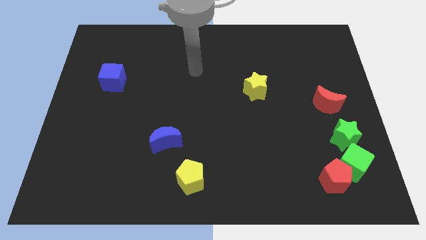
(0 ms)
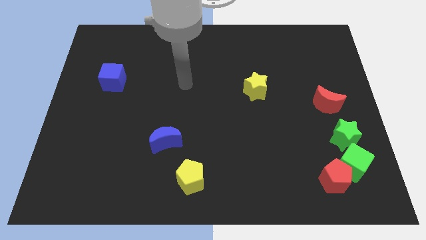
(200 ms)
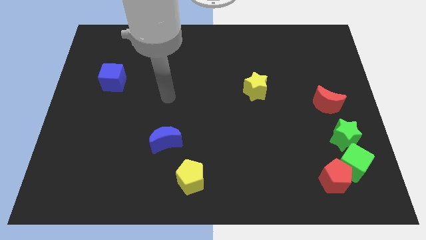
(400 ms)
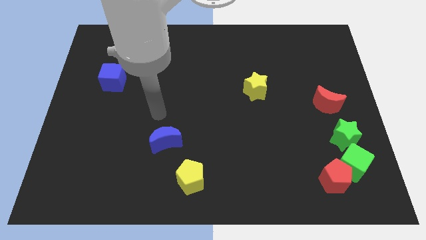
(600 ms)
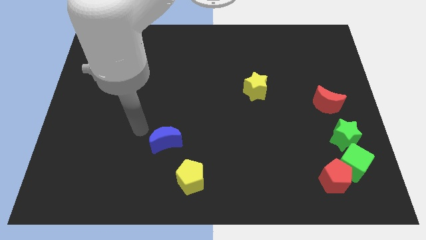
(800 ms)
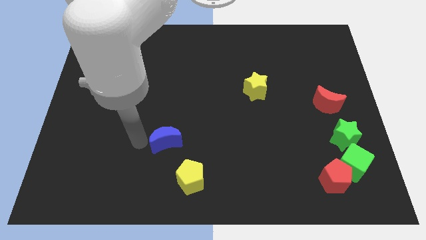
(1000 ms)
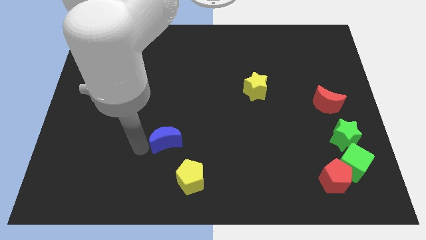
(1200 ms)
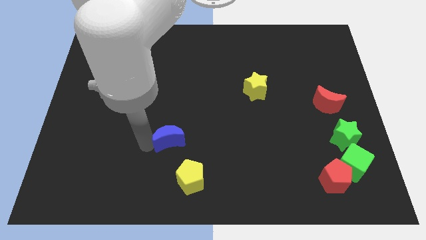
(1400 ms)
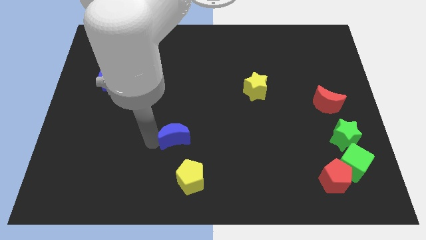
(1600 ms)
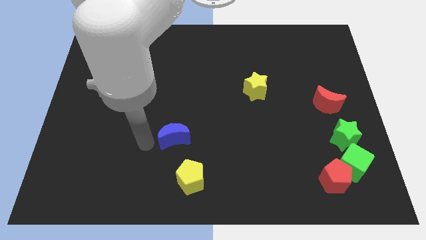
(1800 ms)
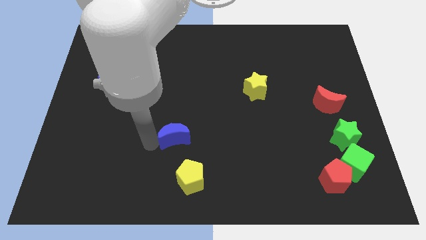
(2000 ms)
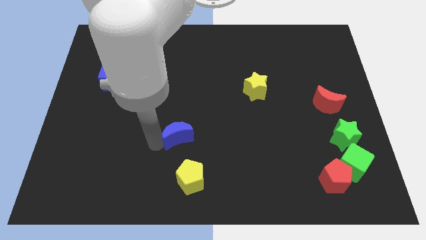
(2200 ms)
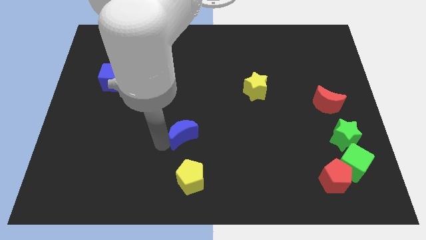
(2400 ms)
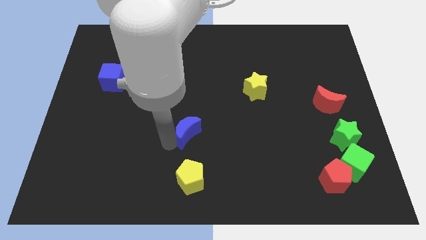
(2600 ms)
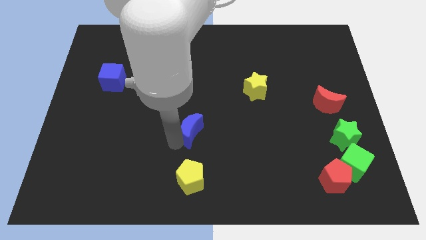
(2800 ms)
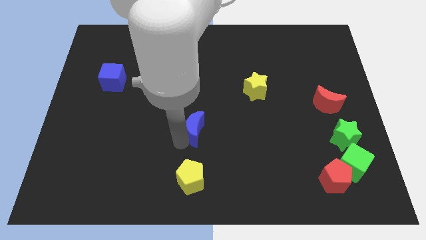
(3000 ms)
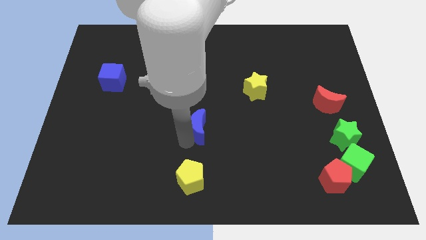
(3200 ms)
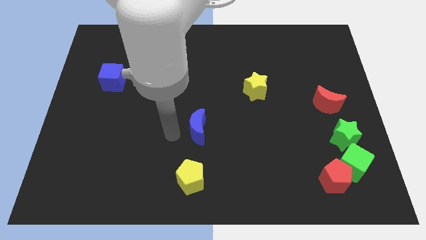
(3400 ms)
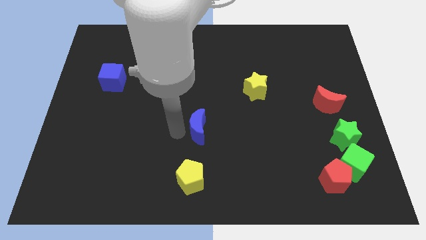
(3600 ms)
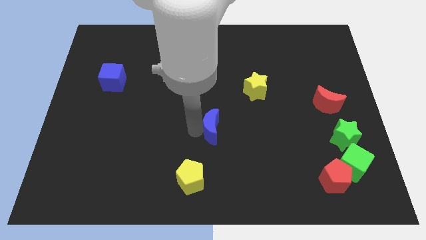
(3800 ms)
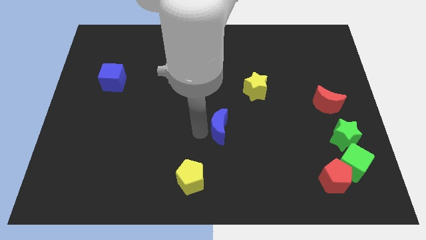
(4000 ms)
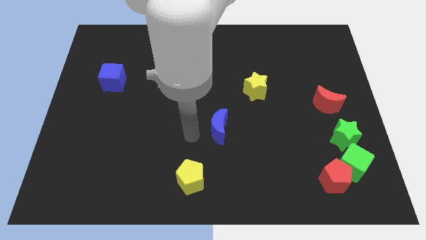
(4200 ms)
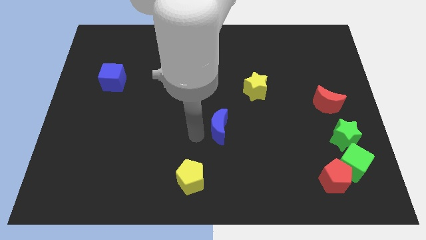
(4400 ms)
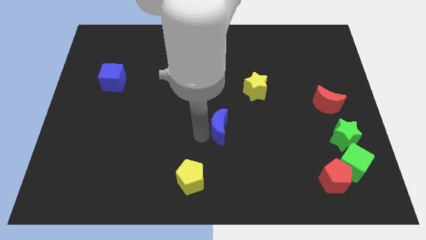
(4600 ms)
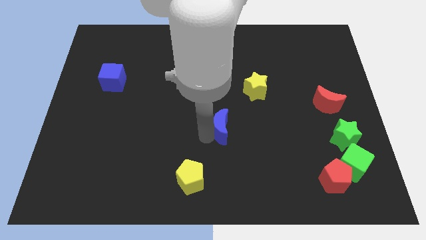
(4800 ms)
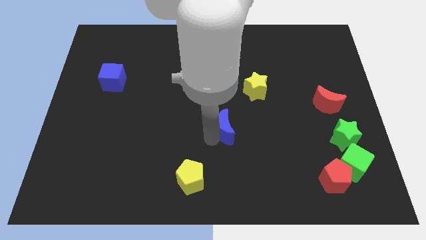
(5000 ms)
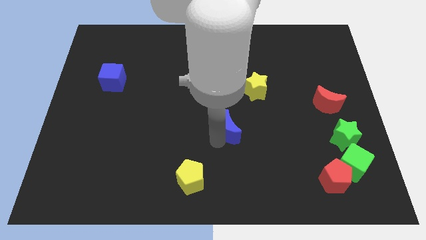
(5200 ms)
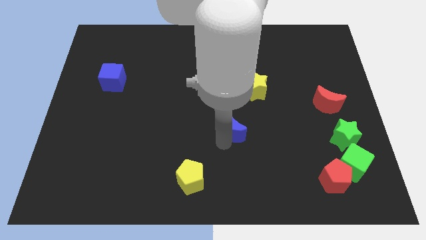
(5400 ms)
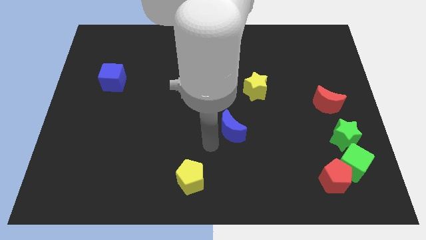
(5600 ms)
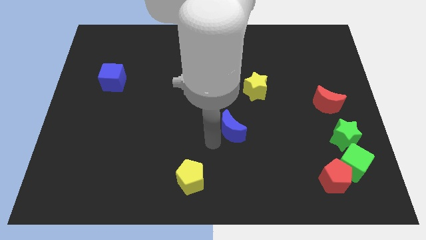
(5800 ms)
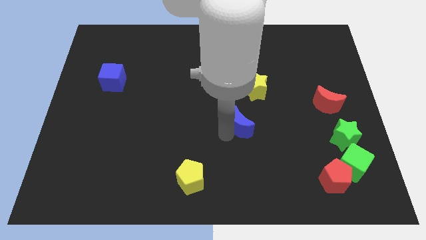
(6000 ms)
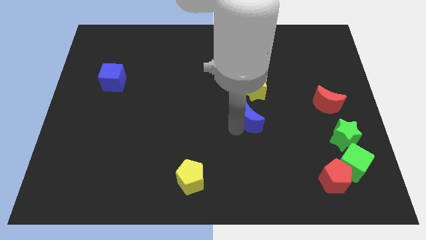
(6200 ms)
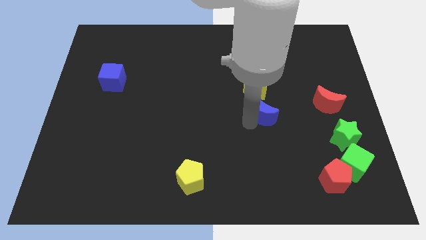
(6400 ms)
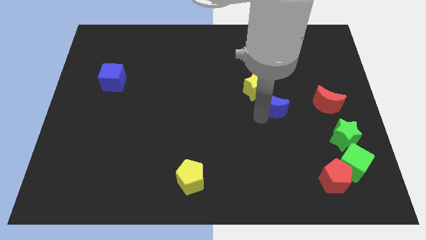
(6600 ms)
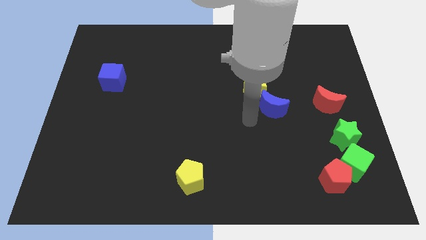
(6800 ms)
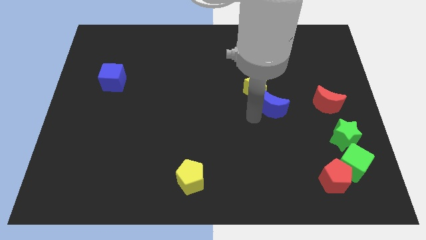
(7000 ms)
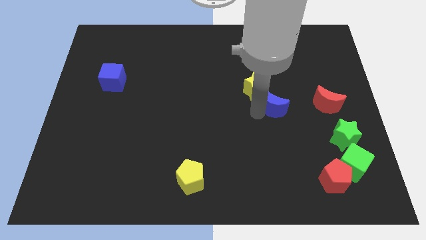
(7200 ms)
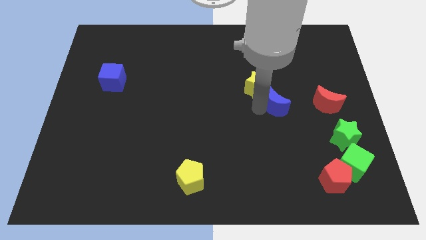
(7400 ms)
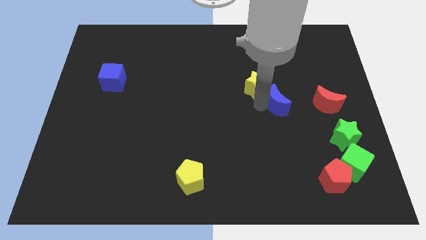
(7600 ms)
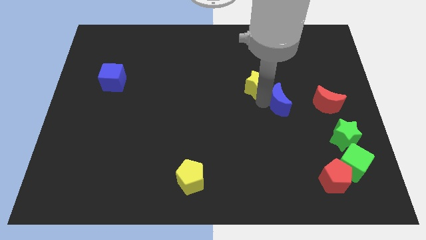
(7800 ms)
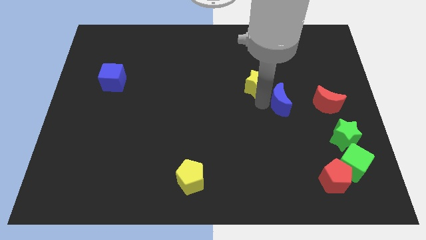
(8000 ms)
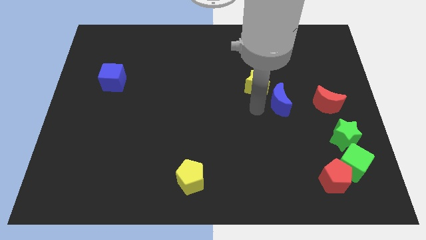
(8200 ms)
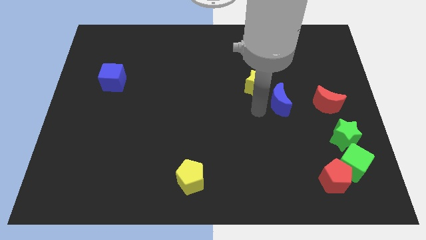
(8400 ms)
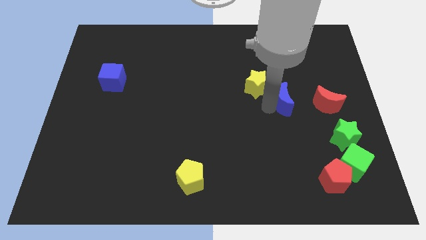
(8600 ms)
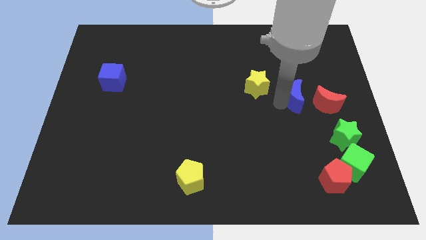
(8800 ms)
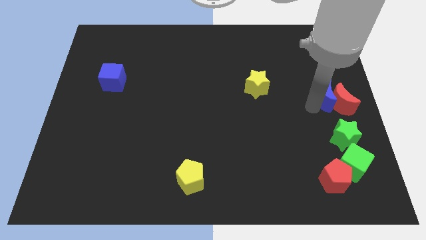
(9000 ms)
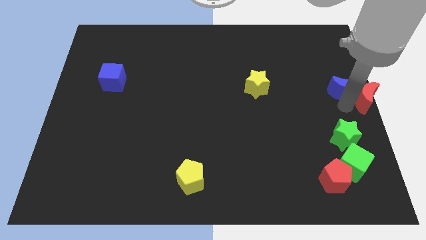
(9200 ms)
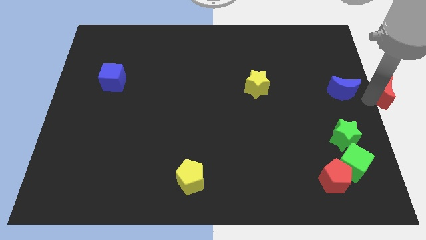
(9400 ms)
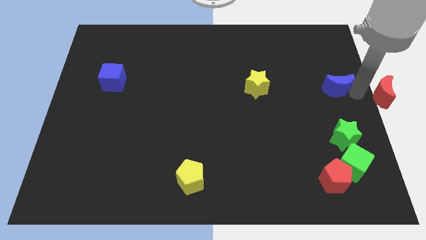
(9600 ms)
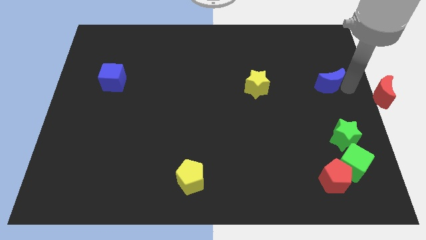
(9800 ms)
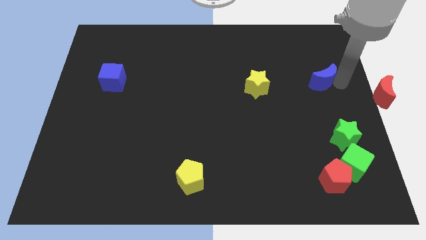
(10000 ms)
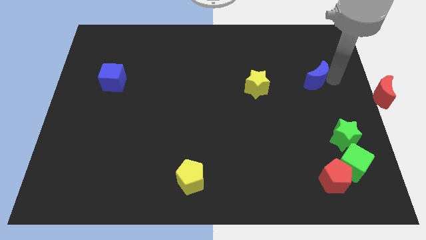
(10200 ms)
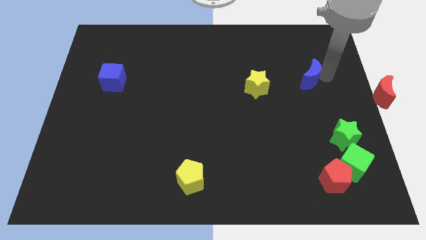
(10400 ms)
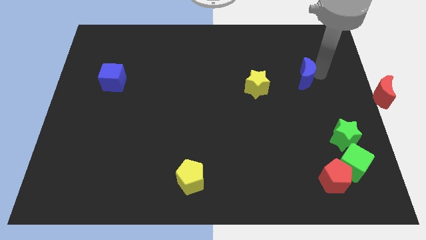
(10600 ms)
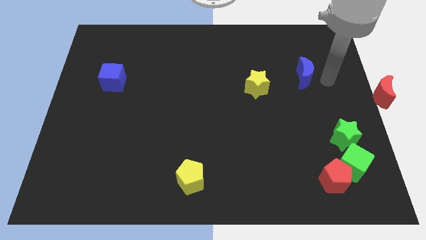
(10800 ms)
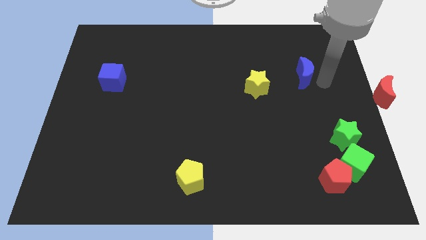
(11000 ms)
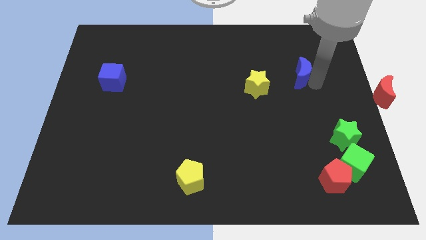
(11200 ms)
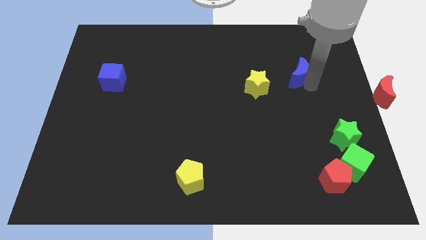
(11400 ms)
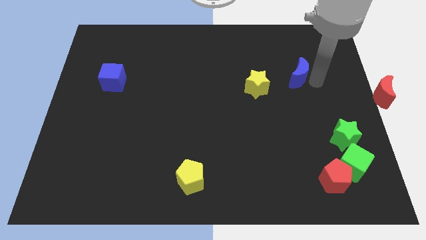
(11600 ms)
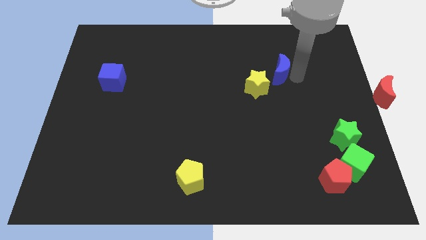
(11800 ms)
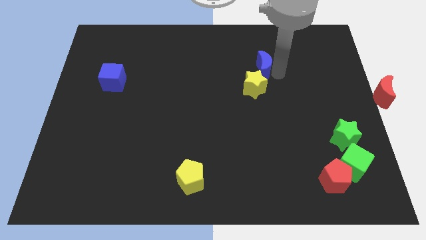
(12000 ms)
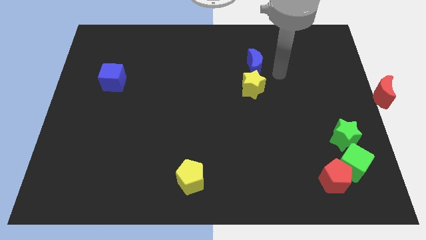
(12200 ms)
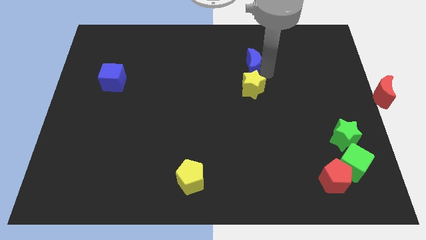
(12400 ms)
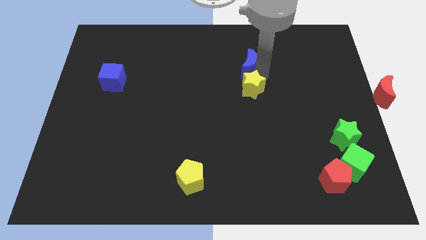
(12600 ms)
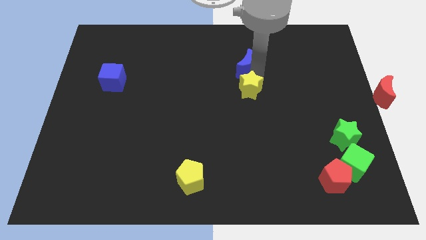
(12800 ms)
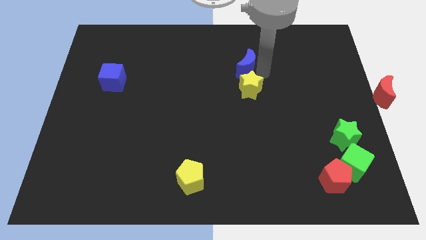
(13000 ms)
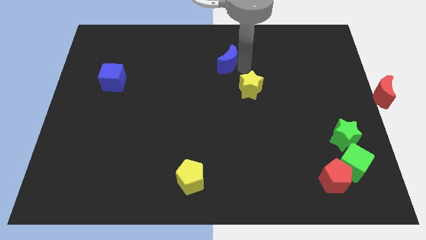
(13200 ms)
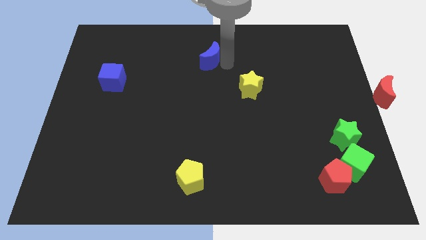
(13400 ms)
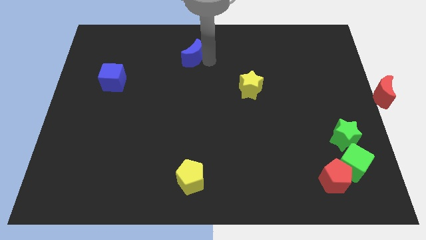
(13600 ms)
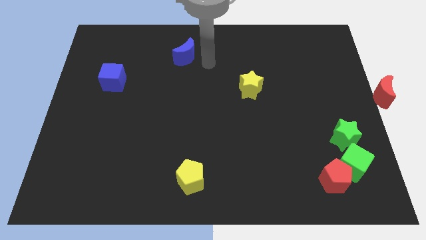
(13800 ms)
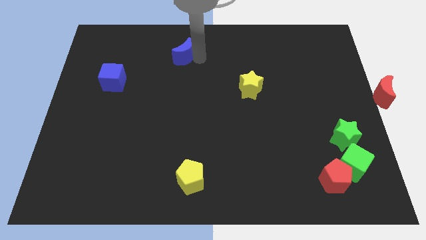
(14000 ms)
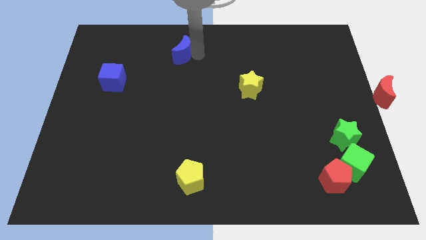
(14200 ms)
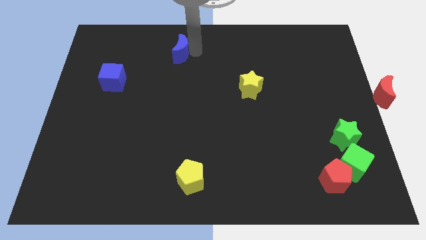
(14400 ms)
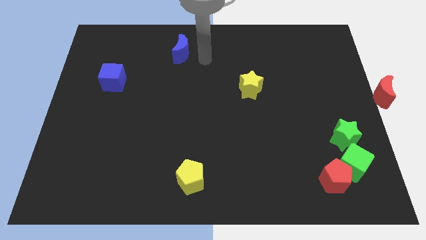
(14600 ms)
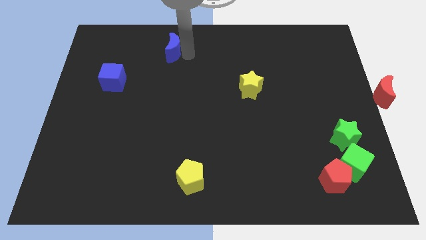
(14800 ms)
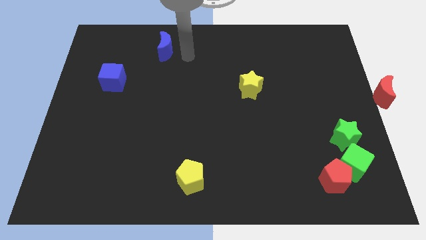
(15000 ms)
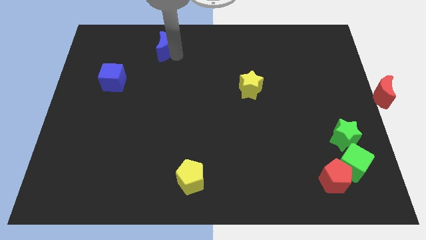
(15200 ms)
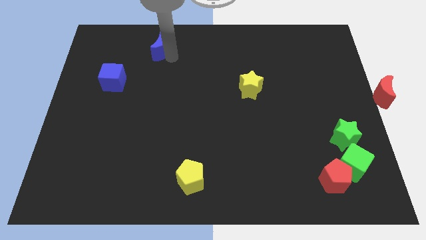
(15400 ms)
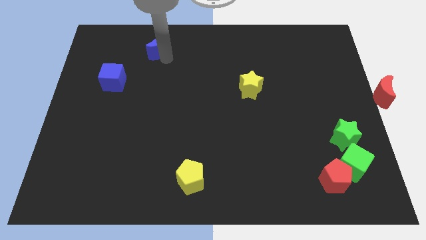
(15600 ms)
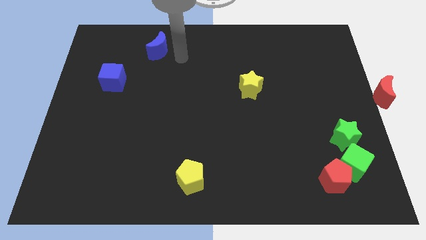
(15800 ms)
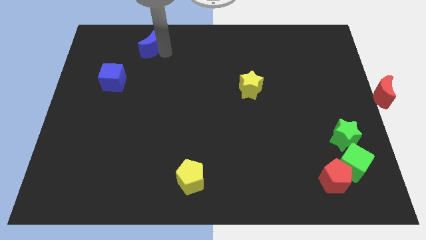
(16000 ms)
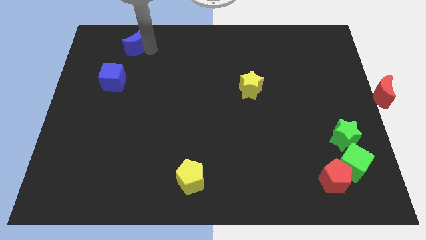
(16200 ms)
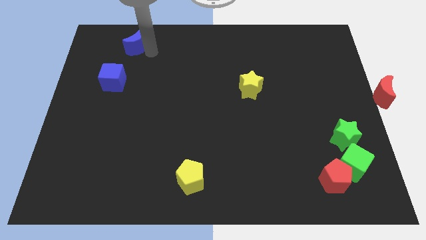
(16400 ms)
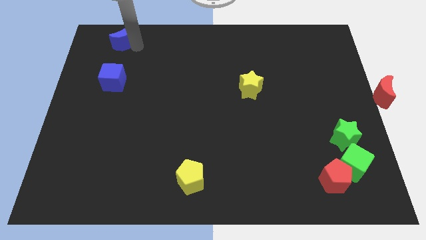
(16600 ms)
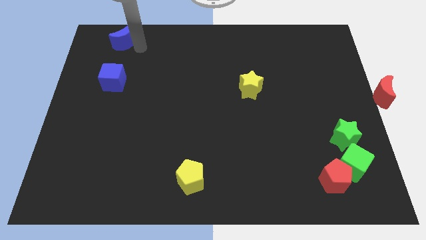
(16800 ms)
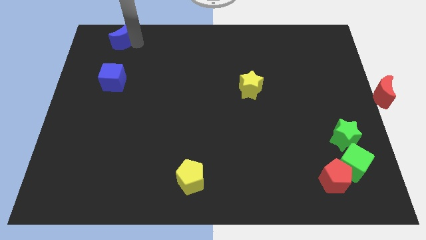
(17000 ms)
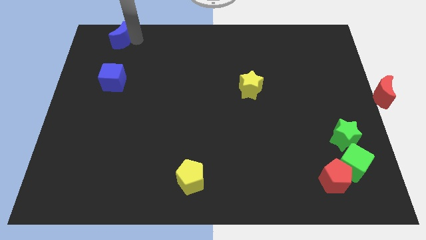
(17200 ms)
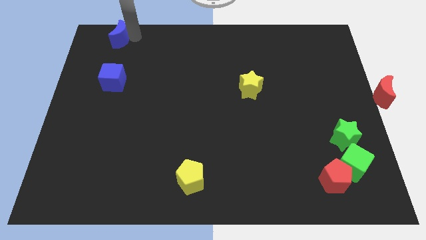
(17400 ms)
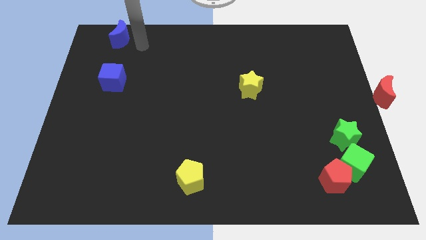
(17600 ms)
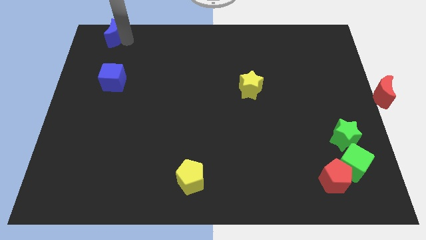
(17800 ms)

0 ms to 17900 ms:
push the blue moon to the upper left corner
